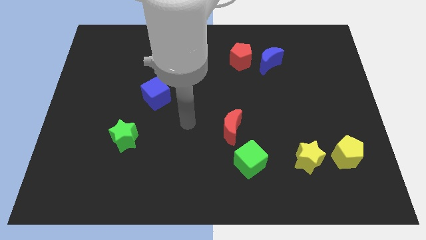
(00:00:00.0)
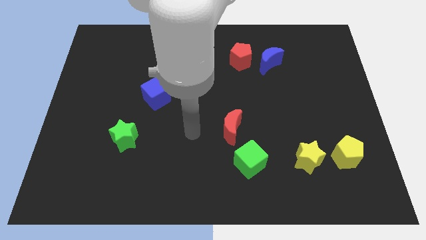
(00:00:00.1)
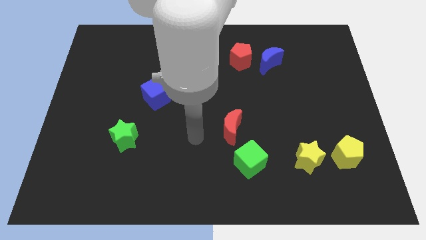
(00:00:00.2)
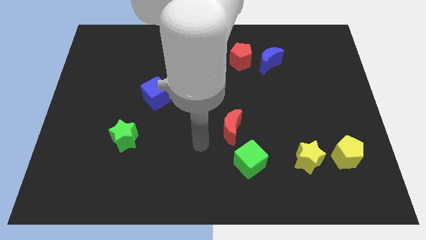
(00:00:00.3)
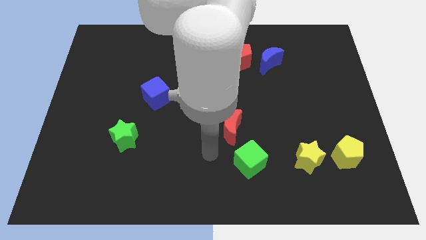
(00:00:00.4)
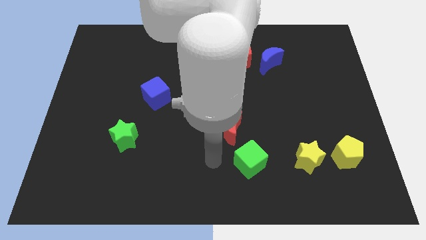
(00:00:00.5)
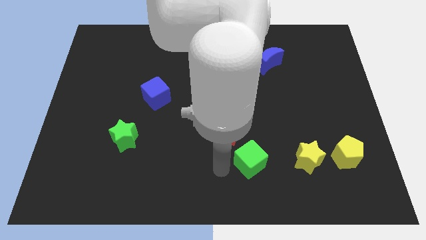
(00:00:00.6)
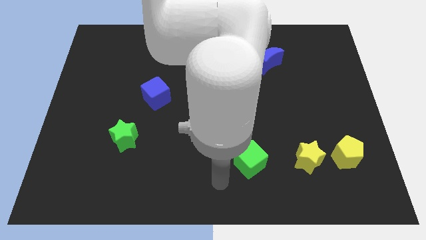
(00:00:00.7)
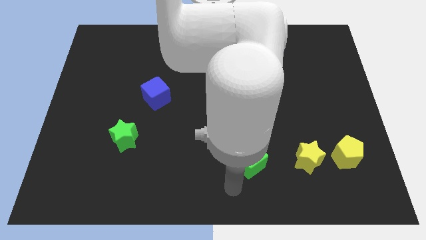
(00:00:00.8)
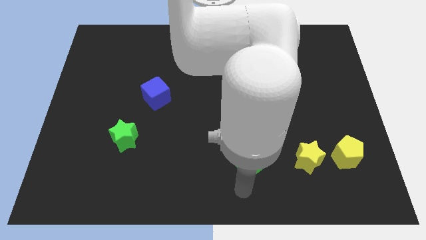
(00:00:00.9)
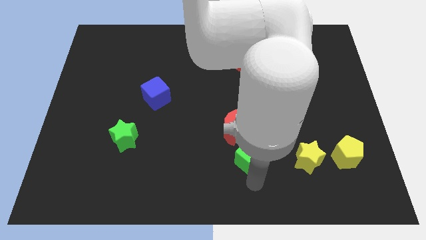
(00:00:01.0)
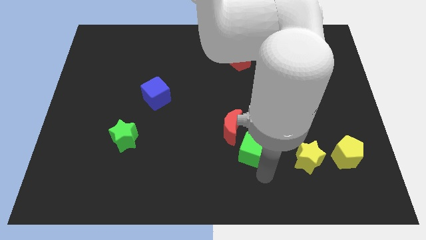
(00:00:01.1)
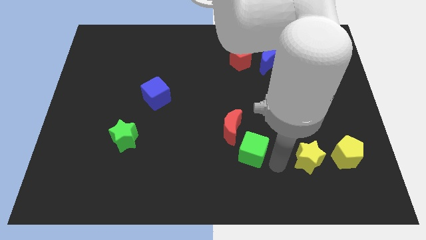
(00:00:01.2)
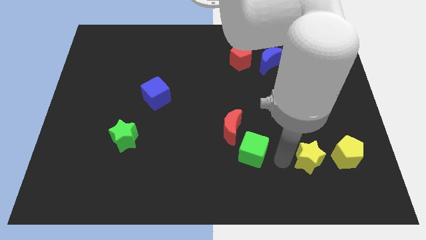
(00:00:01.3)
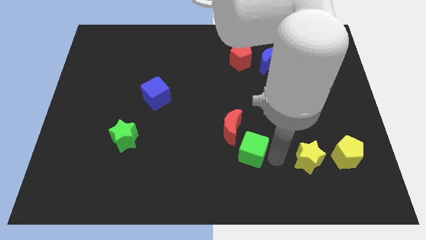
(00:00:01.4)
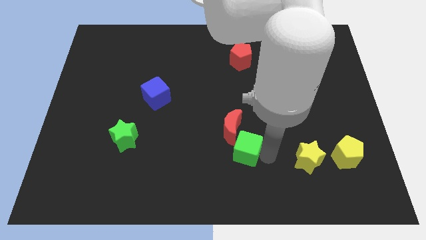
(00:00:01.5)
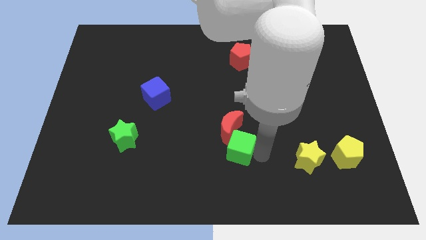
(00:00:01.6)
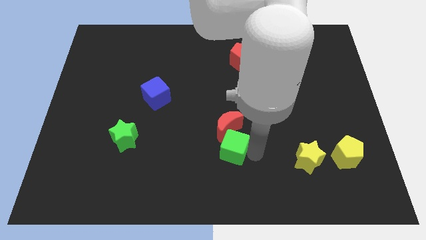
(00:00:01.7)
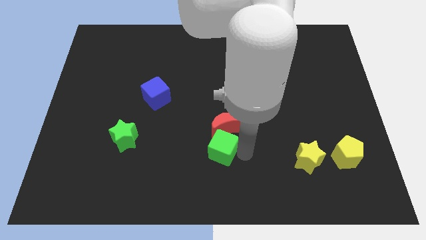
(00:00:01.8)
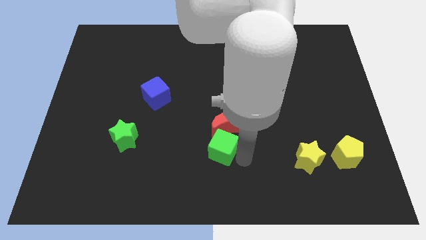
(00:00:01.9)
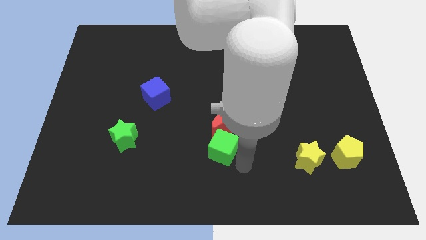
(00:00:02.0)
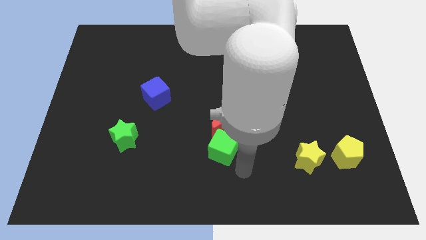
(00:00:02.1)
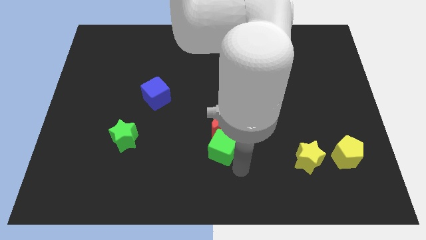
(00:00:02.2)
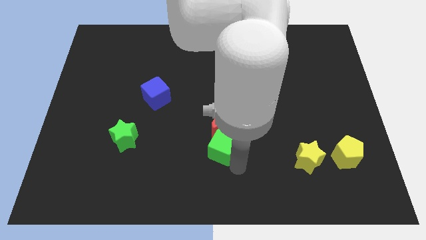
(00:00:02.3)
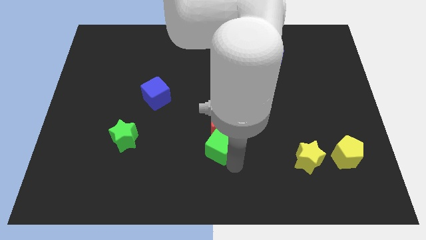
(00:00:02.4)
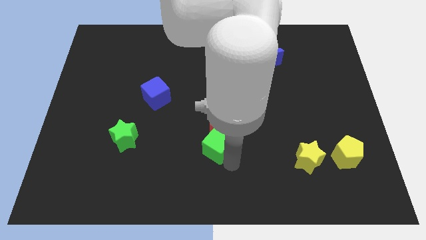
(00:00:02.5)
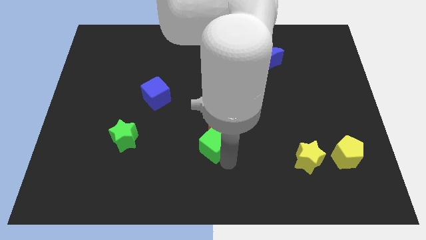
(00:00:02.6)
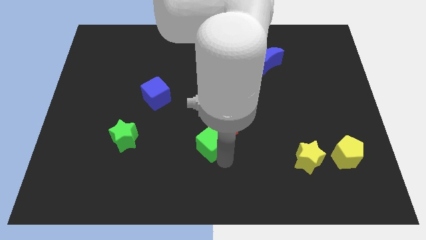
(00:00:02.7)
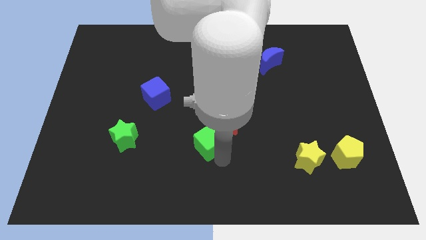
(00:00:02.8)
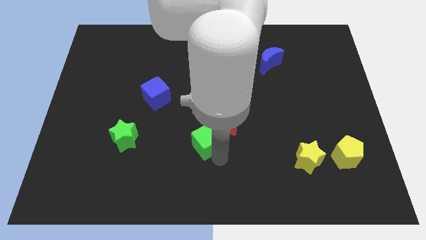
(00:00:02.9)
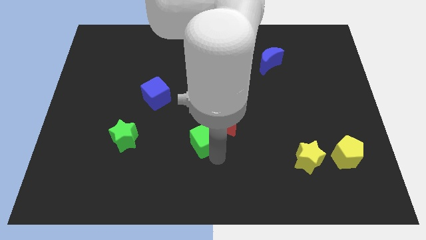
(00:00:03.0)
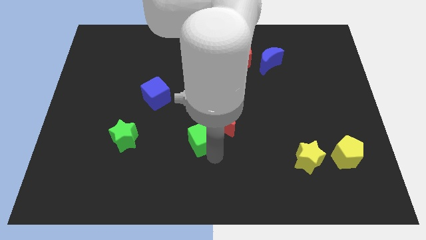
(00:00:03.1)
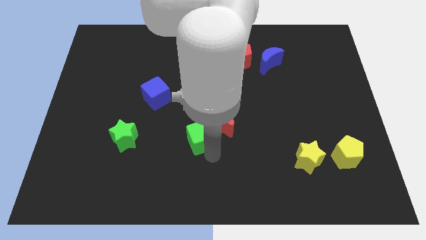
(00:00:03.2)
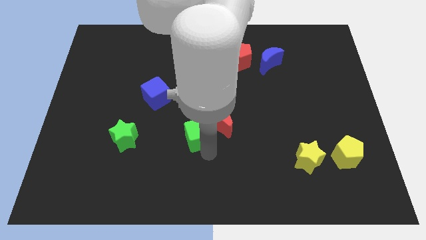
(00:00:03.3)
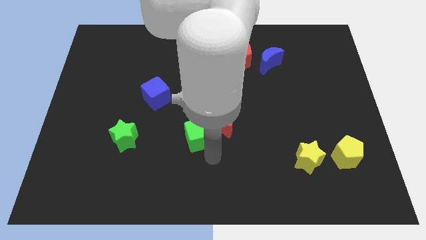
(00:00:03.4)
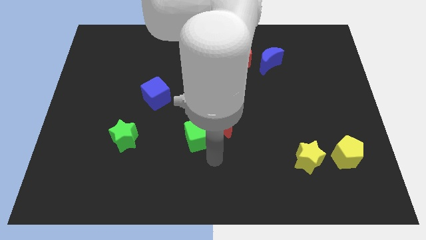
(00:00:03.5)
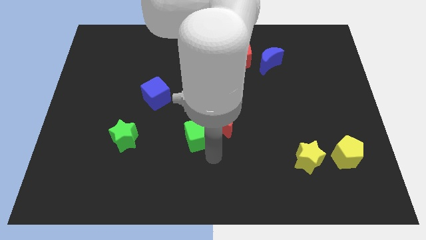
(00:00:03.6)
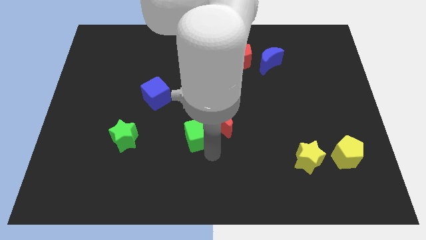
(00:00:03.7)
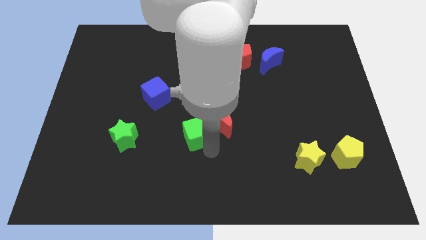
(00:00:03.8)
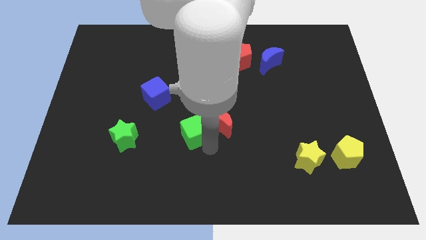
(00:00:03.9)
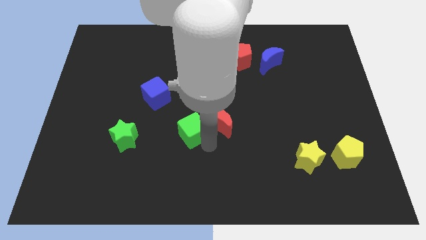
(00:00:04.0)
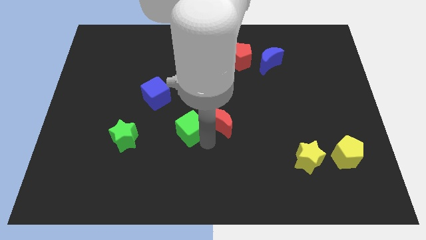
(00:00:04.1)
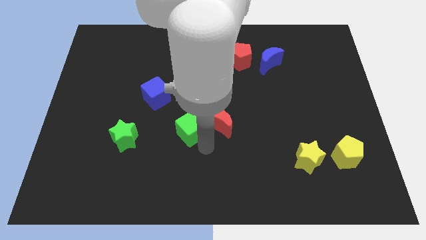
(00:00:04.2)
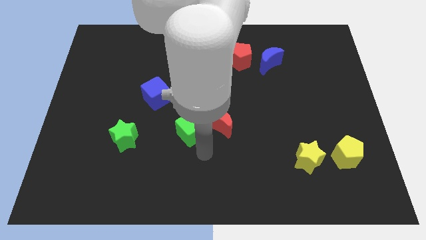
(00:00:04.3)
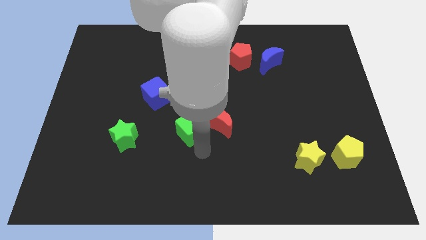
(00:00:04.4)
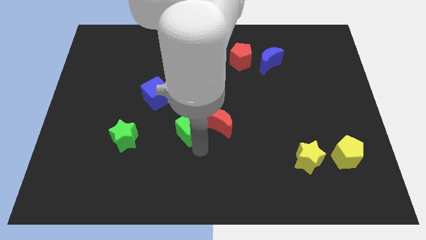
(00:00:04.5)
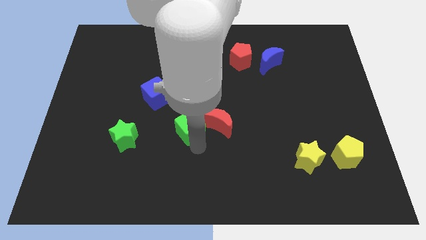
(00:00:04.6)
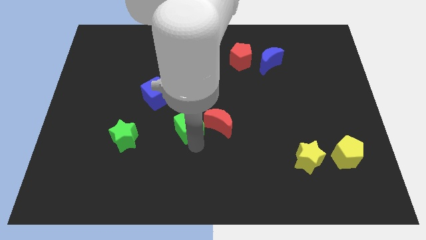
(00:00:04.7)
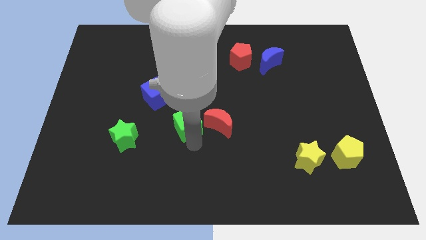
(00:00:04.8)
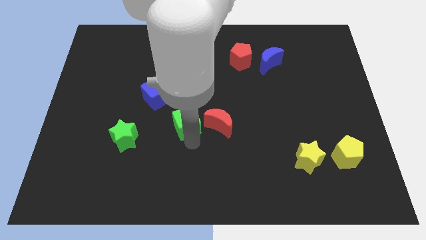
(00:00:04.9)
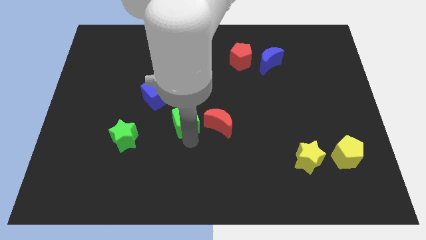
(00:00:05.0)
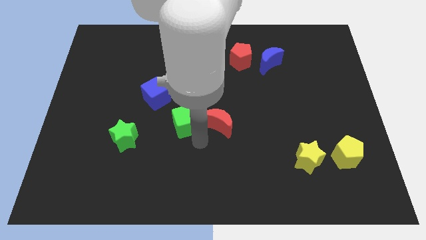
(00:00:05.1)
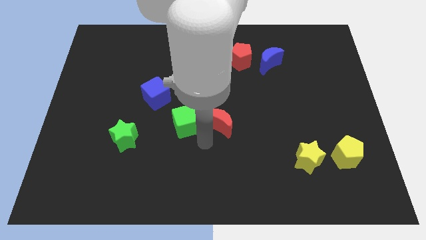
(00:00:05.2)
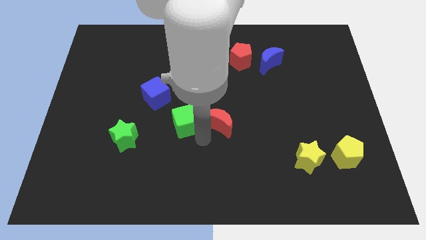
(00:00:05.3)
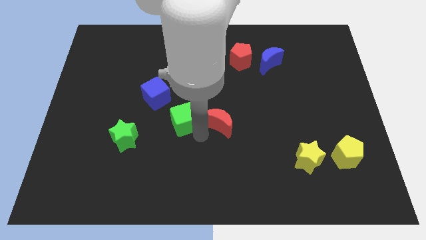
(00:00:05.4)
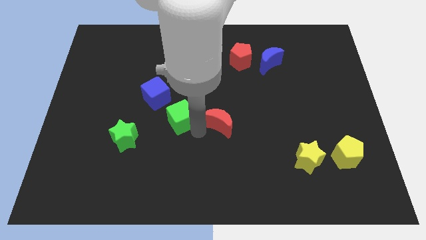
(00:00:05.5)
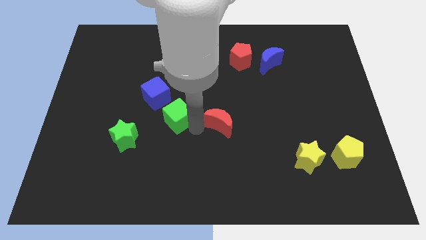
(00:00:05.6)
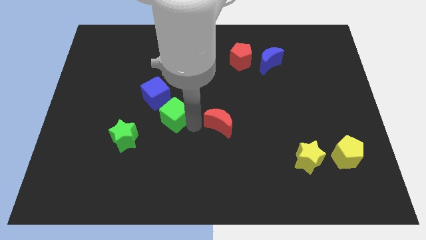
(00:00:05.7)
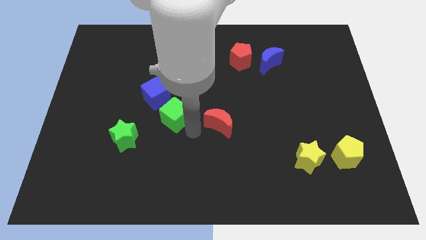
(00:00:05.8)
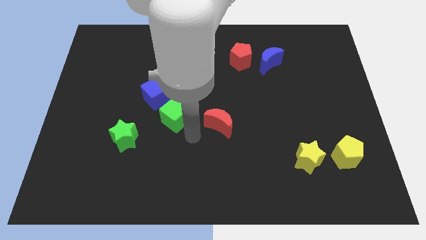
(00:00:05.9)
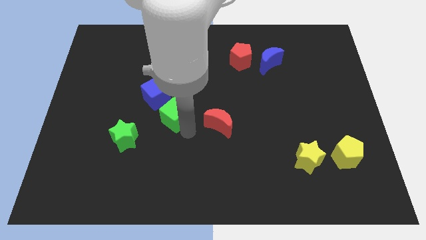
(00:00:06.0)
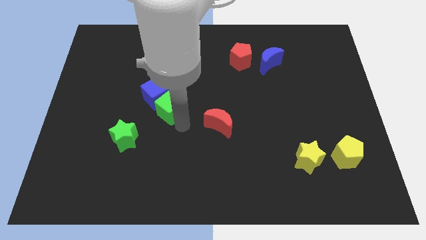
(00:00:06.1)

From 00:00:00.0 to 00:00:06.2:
push the green cube towards the blue cube
